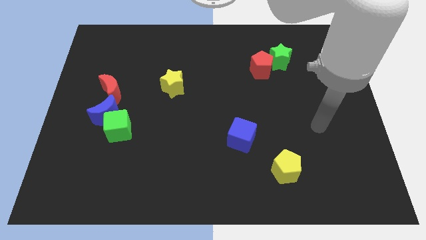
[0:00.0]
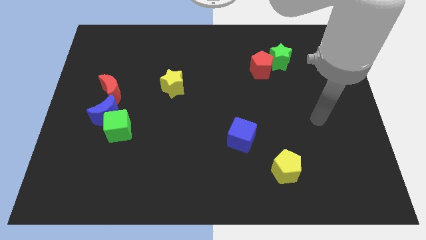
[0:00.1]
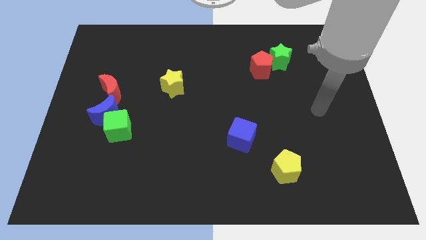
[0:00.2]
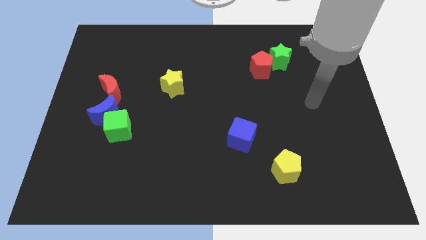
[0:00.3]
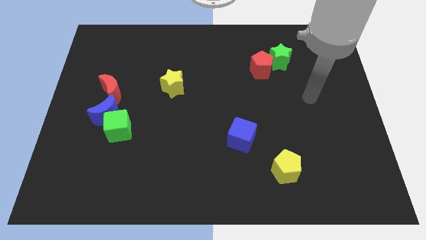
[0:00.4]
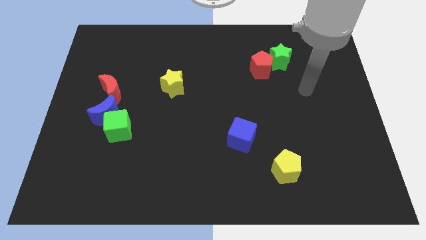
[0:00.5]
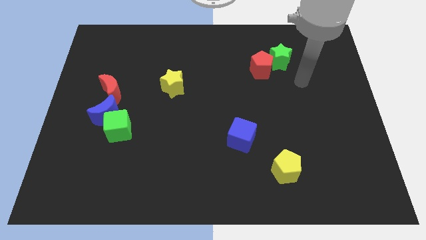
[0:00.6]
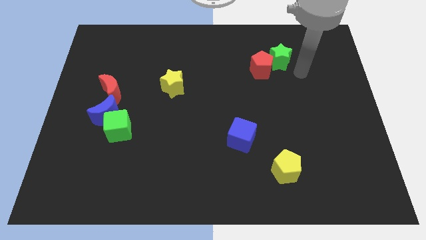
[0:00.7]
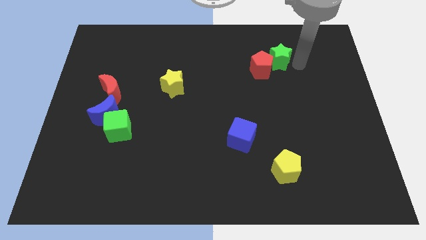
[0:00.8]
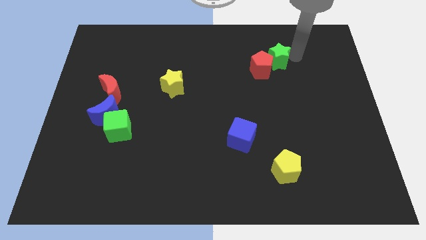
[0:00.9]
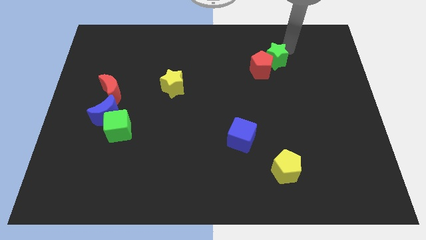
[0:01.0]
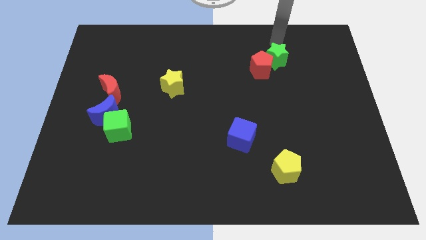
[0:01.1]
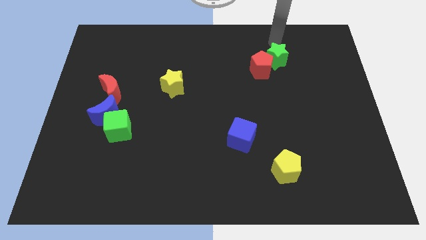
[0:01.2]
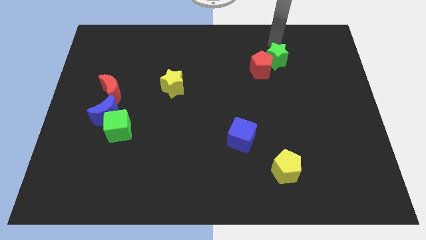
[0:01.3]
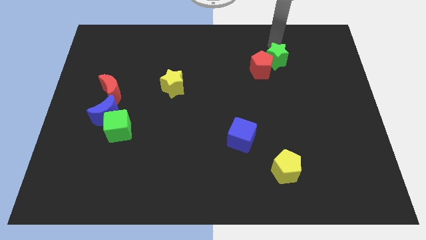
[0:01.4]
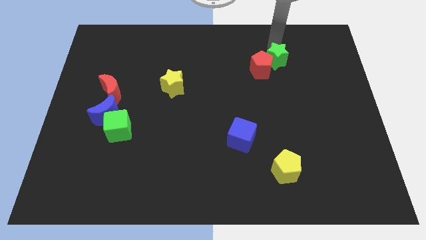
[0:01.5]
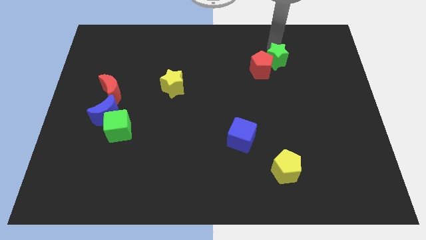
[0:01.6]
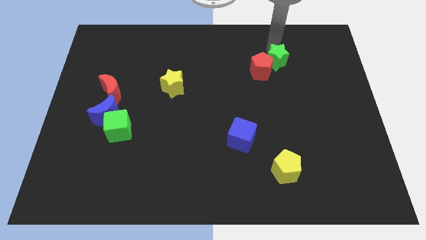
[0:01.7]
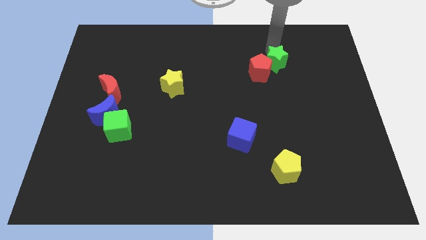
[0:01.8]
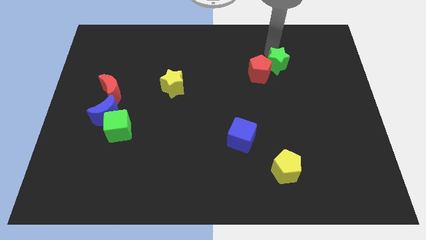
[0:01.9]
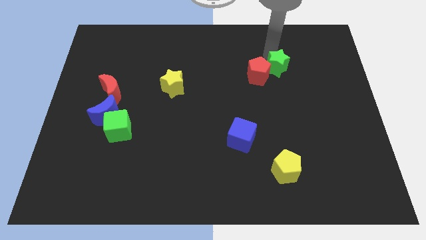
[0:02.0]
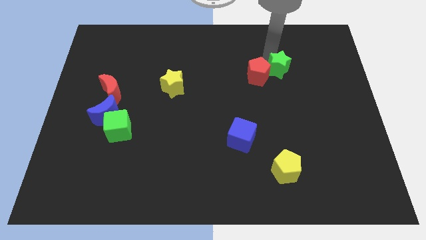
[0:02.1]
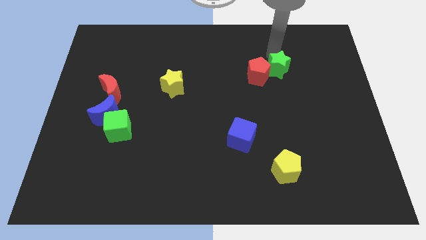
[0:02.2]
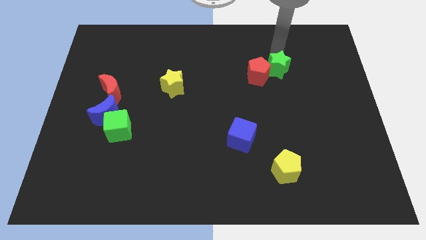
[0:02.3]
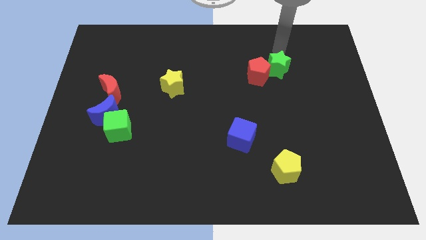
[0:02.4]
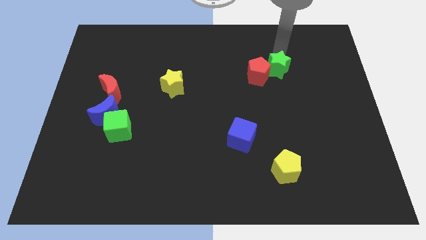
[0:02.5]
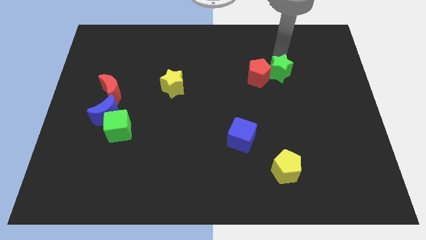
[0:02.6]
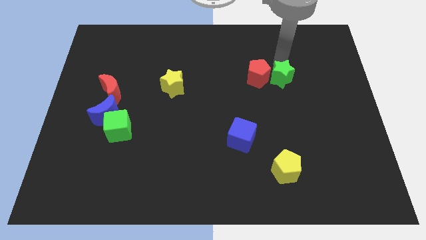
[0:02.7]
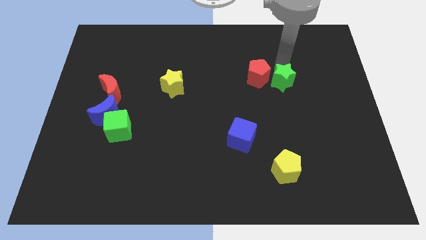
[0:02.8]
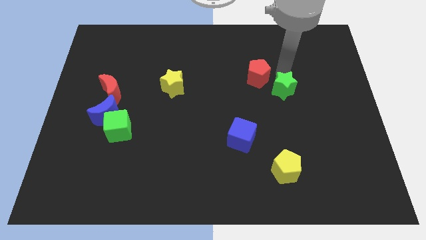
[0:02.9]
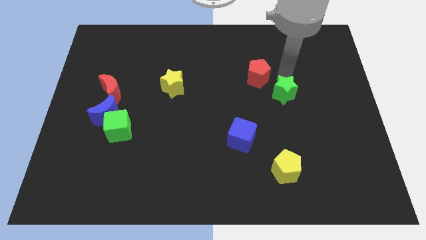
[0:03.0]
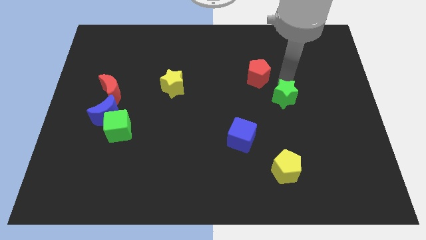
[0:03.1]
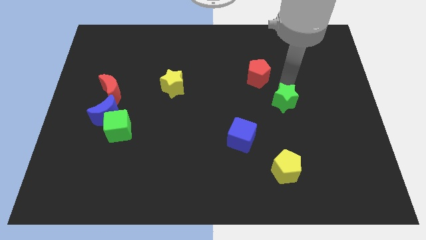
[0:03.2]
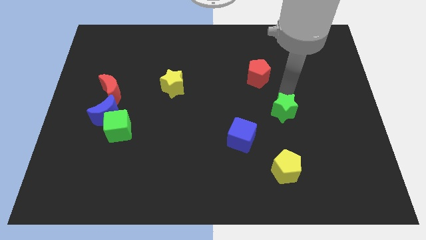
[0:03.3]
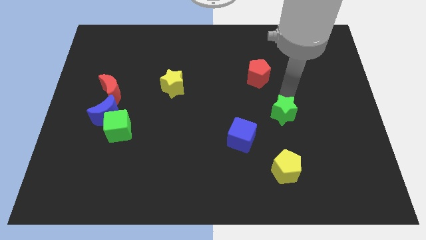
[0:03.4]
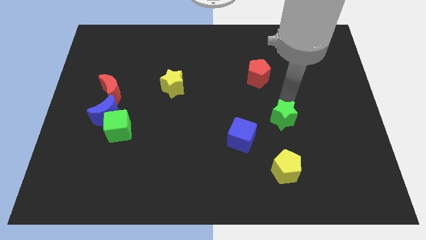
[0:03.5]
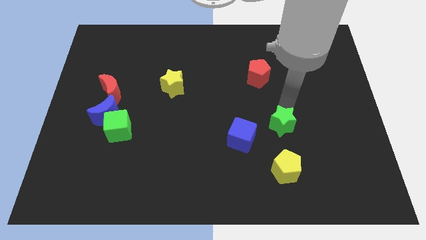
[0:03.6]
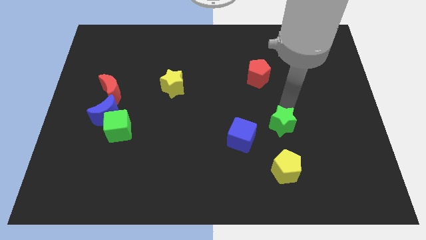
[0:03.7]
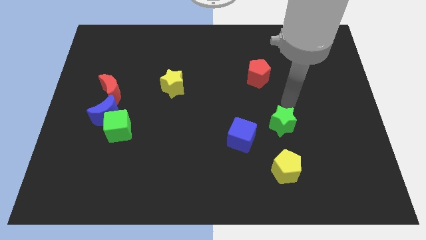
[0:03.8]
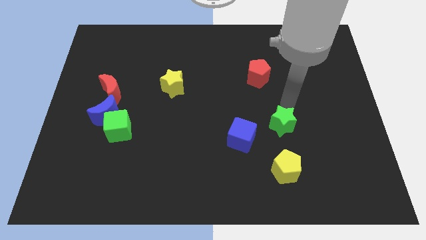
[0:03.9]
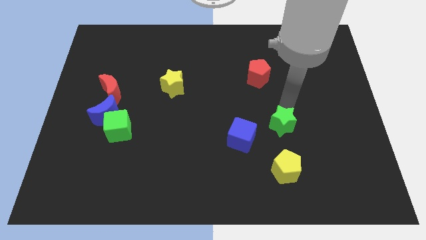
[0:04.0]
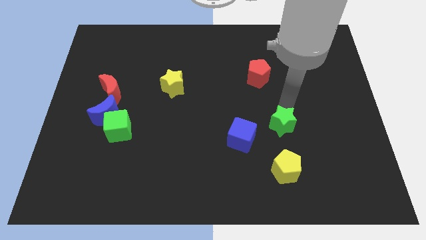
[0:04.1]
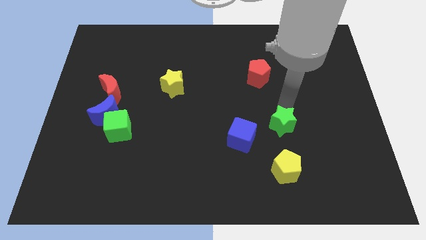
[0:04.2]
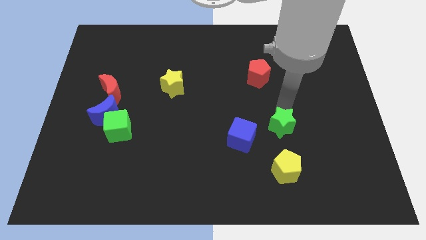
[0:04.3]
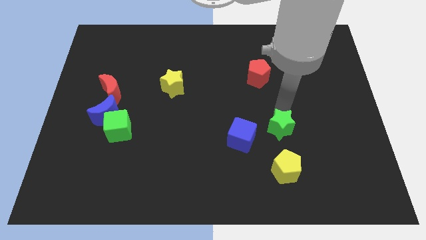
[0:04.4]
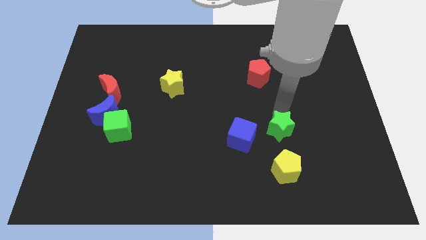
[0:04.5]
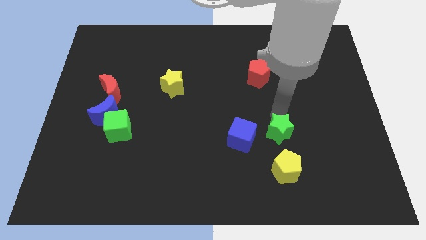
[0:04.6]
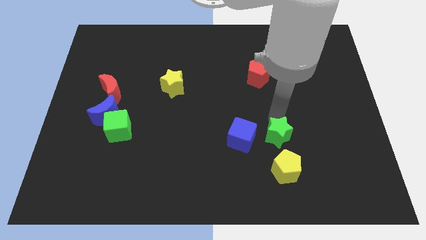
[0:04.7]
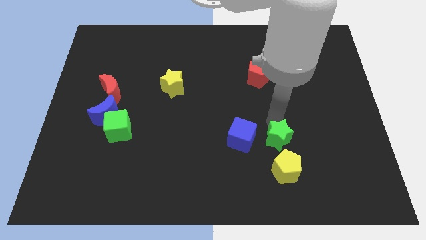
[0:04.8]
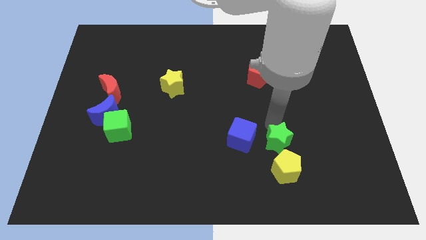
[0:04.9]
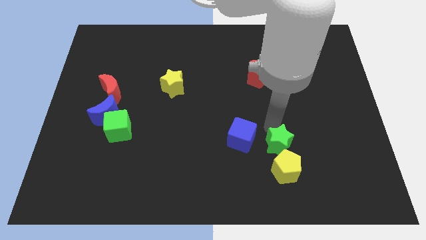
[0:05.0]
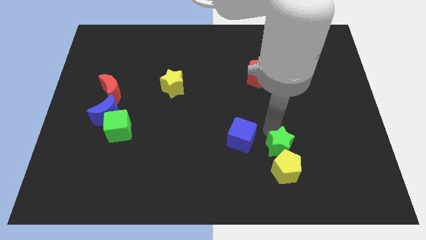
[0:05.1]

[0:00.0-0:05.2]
slide the green star to the yellow pentagon

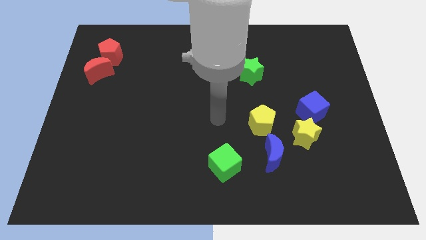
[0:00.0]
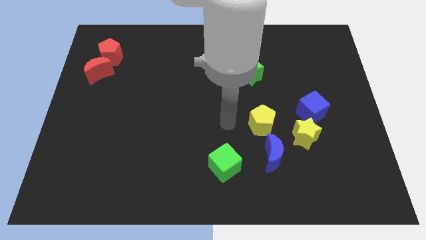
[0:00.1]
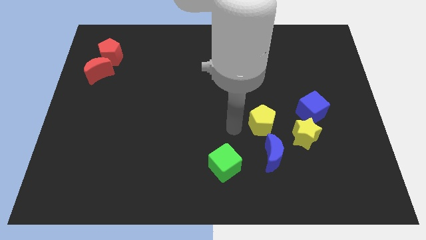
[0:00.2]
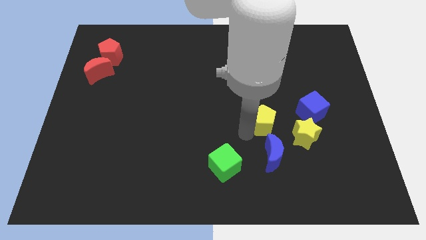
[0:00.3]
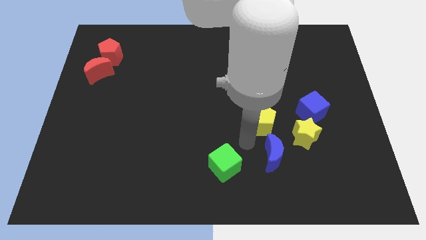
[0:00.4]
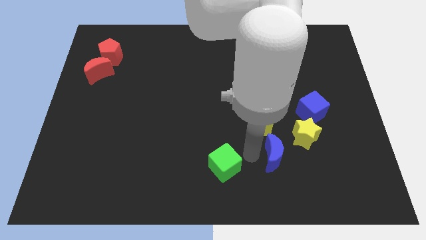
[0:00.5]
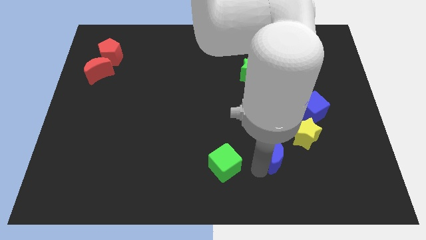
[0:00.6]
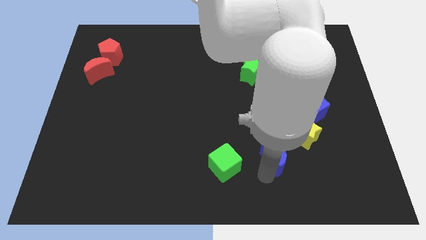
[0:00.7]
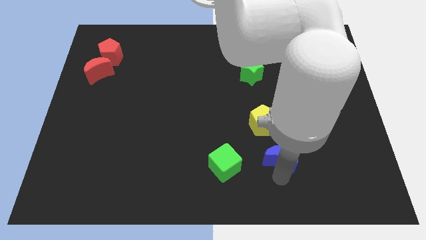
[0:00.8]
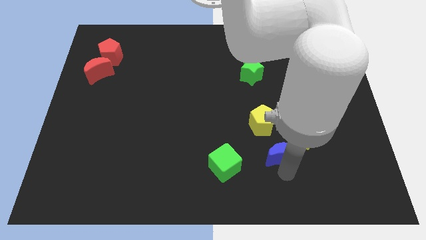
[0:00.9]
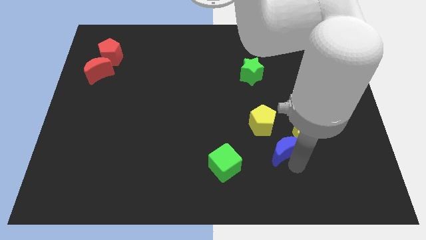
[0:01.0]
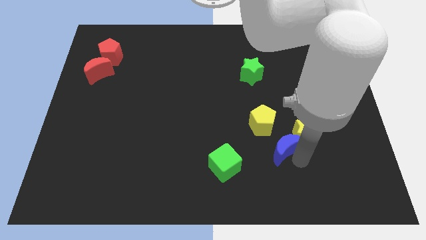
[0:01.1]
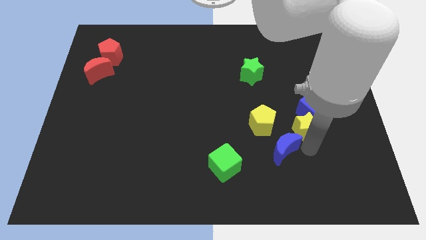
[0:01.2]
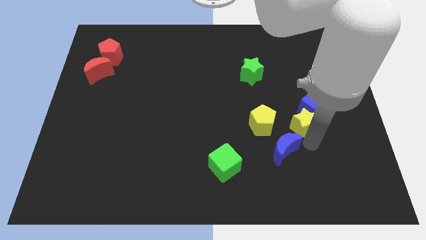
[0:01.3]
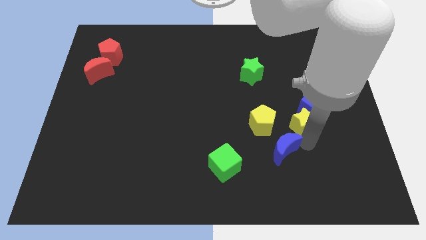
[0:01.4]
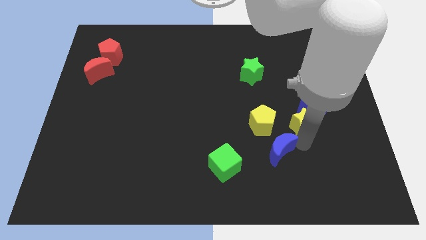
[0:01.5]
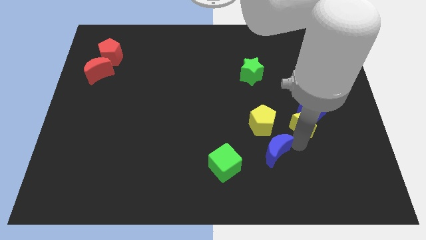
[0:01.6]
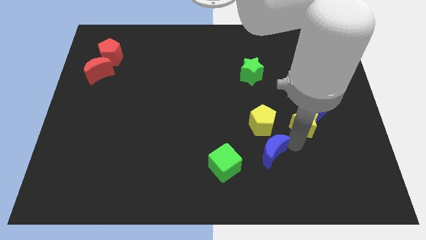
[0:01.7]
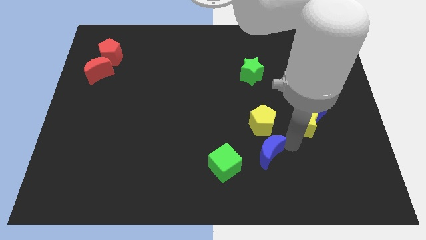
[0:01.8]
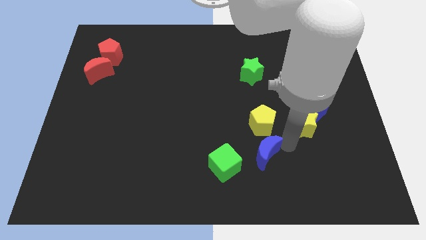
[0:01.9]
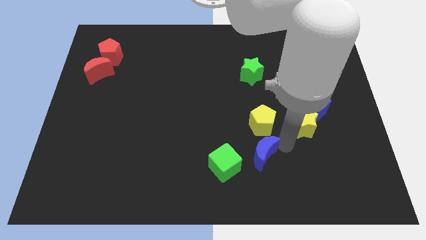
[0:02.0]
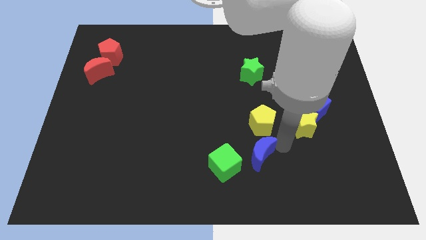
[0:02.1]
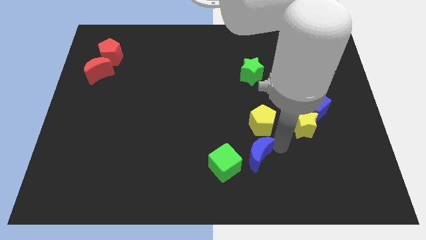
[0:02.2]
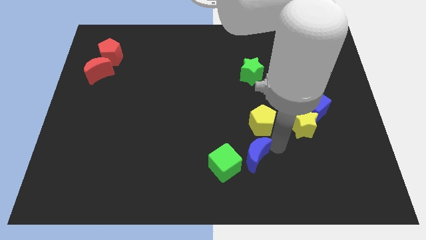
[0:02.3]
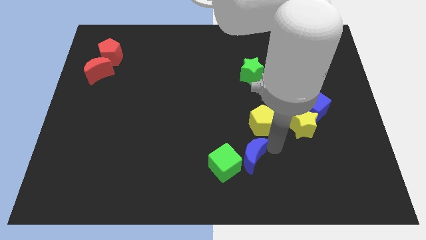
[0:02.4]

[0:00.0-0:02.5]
put the blue moon to the green cube
